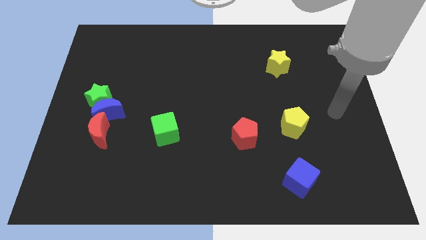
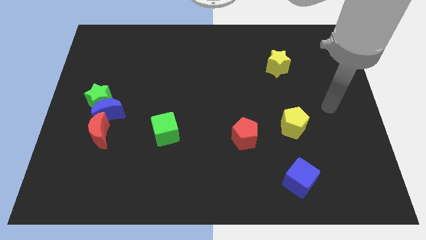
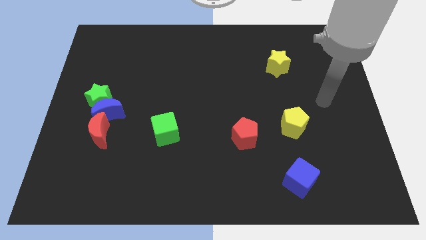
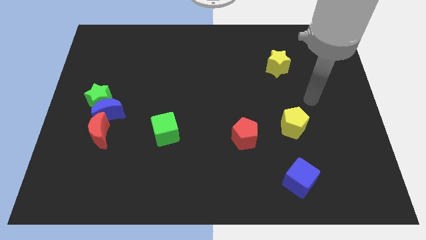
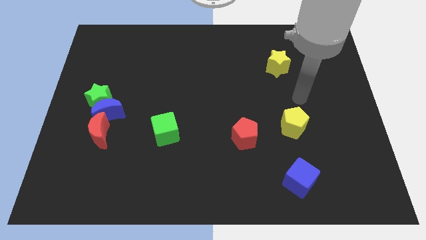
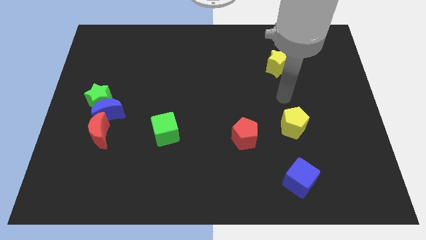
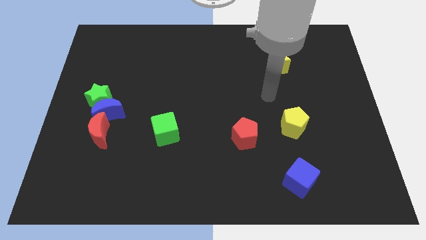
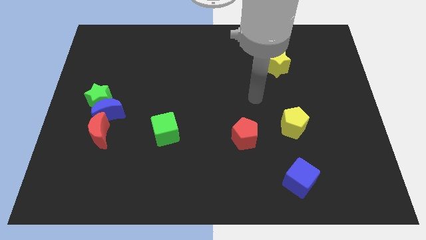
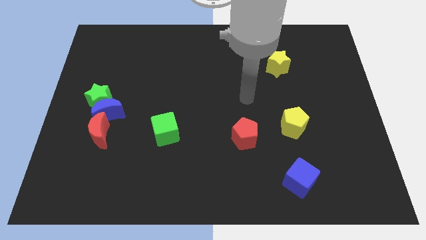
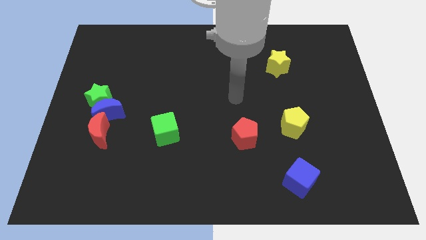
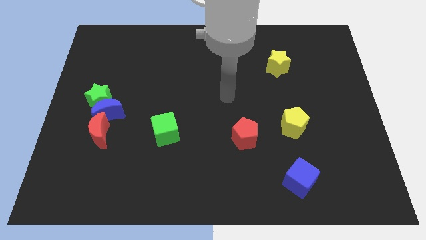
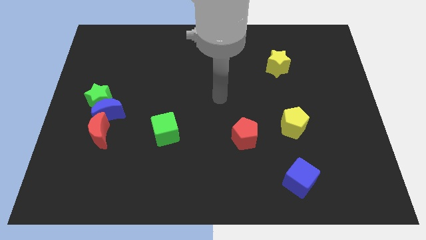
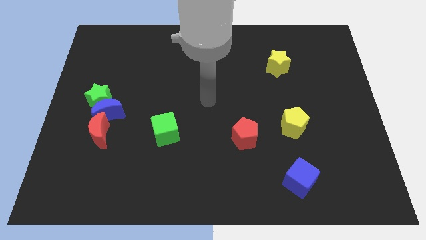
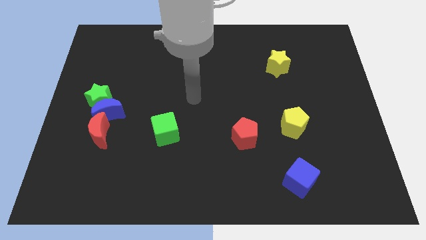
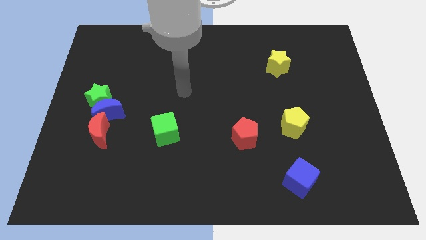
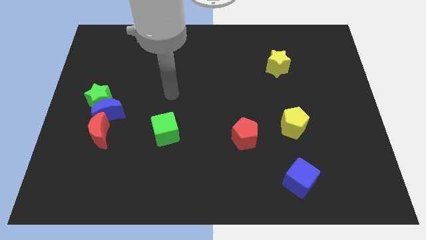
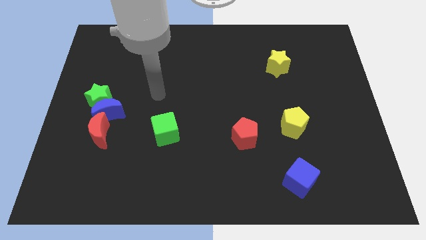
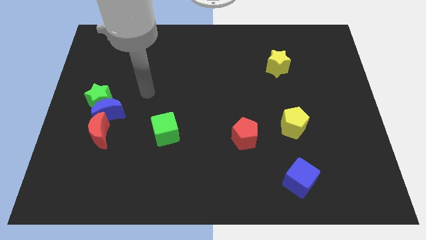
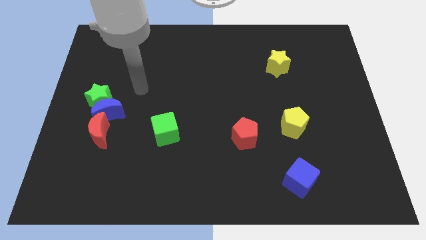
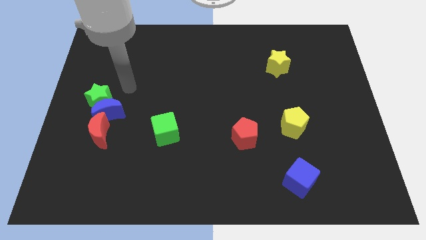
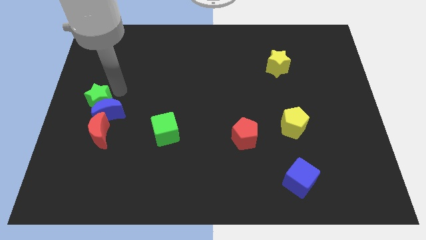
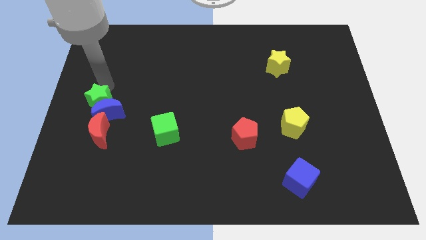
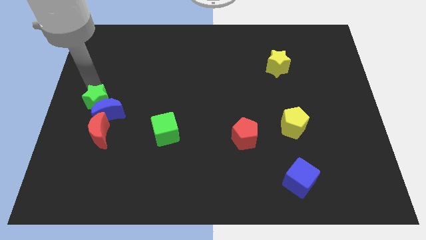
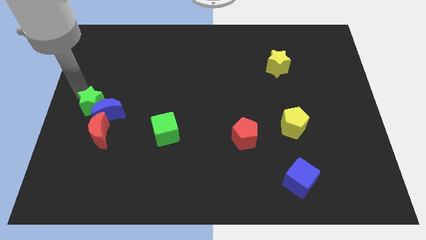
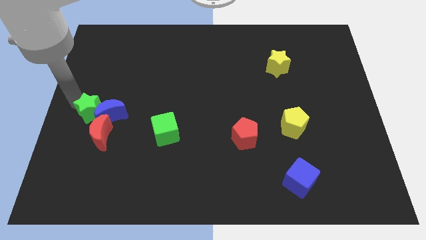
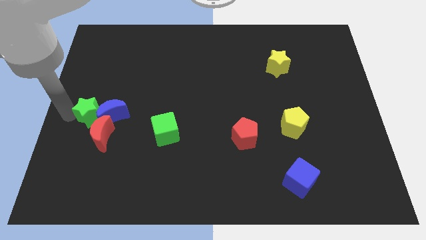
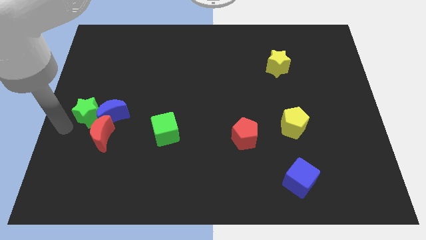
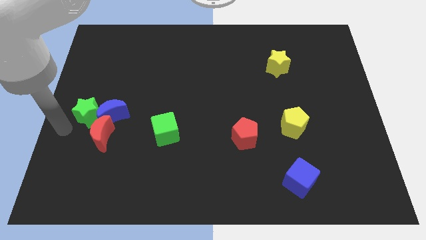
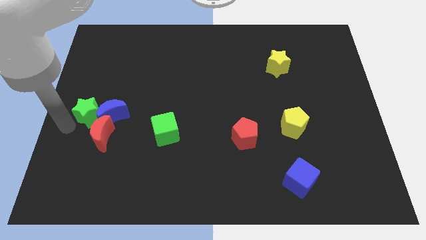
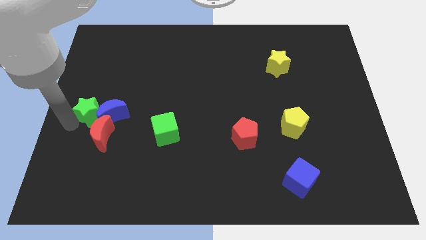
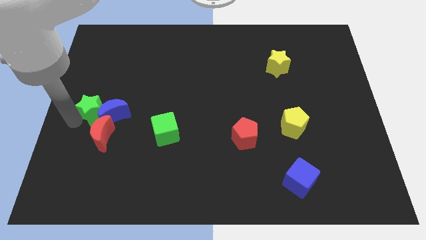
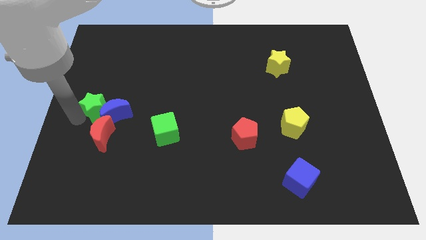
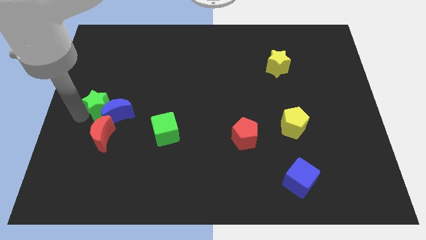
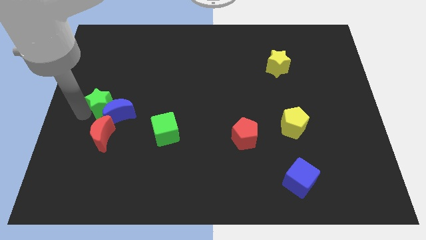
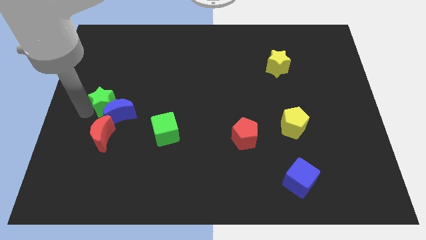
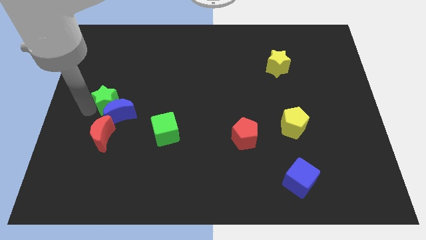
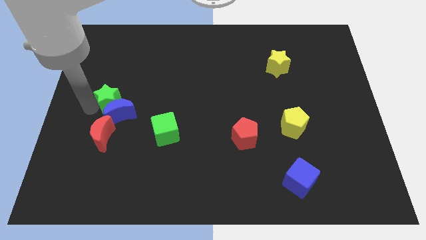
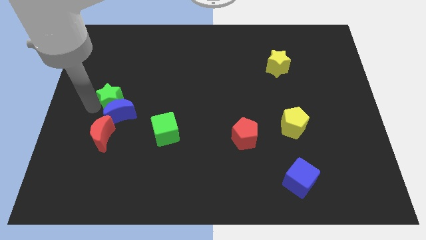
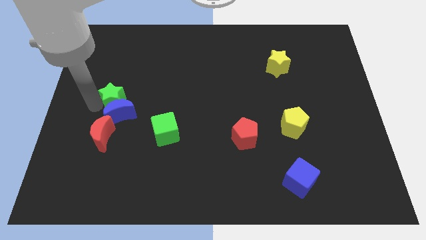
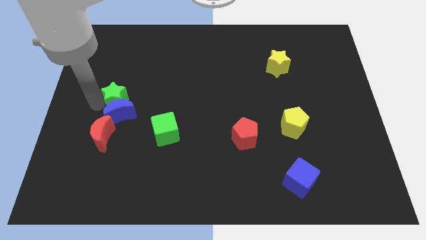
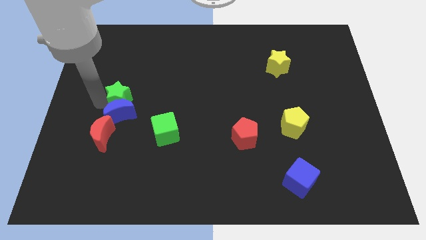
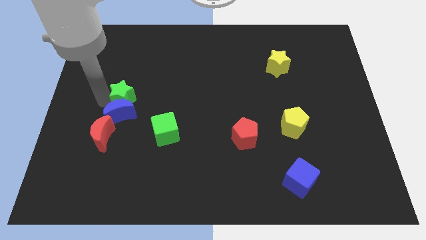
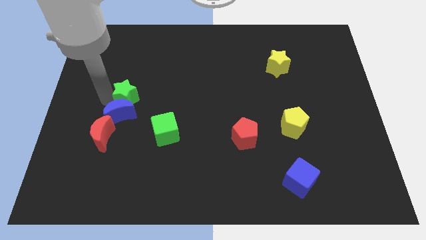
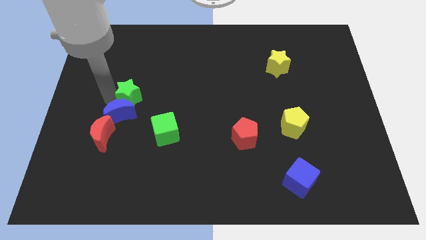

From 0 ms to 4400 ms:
slide the green star right a little

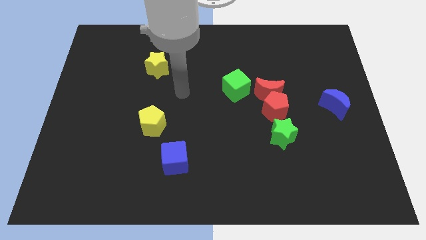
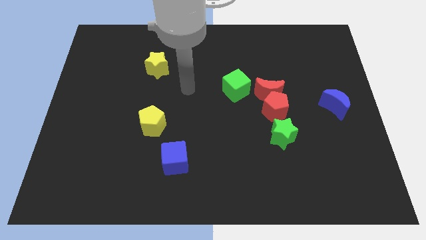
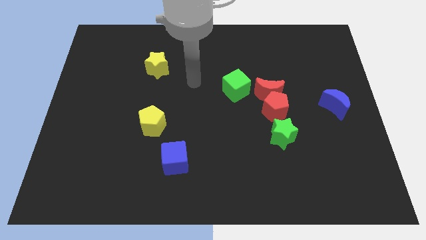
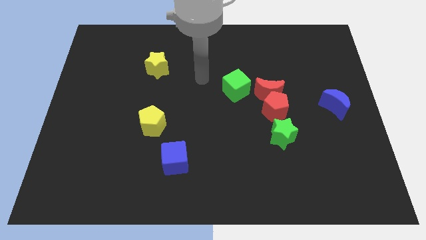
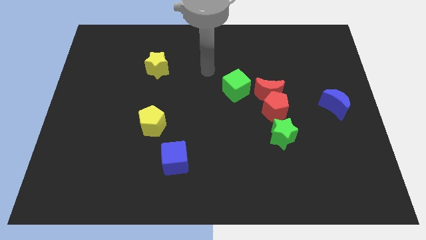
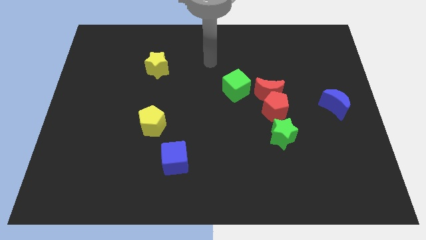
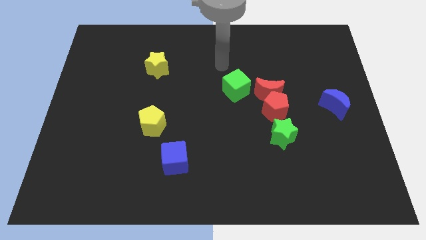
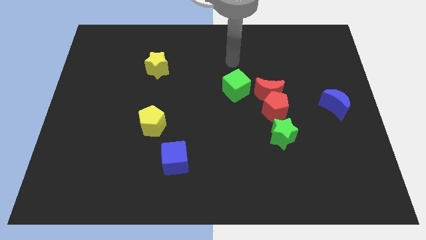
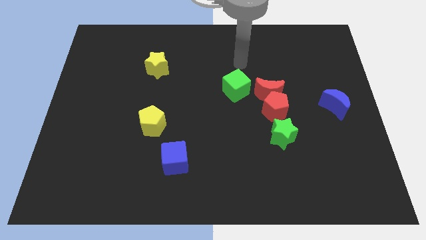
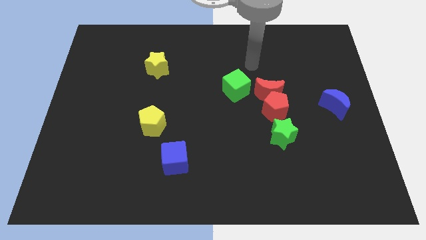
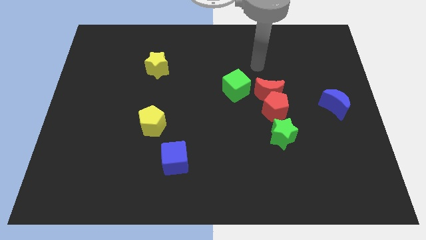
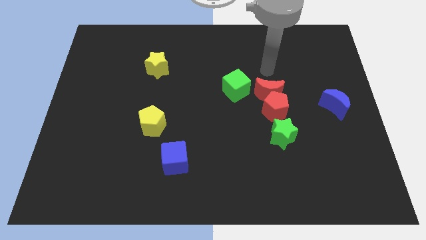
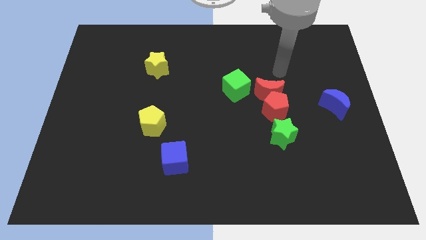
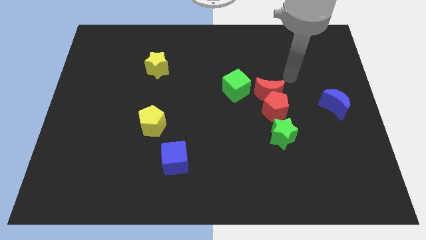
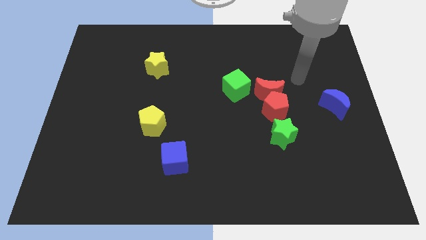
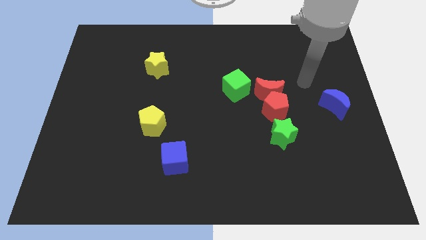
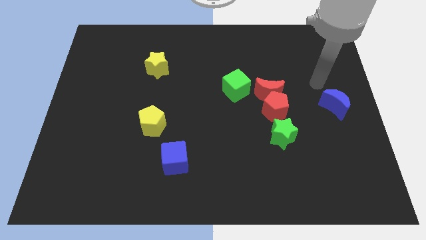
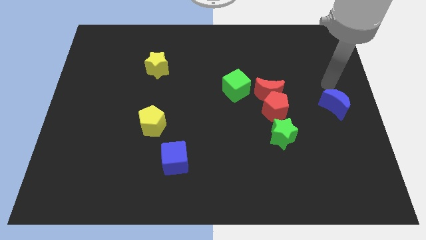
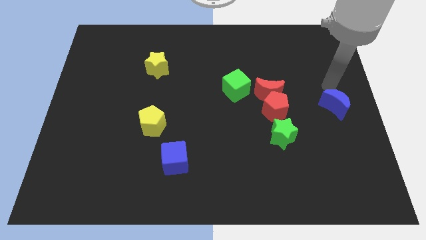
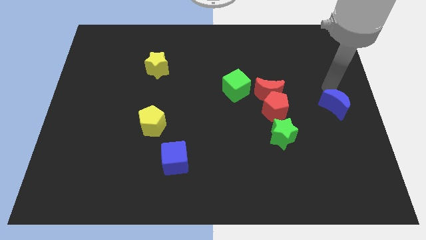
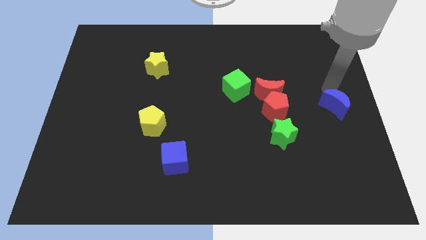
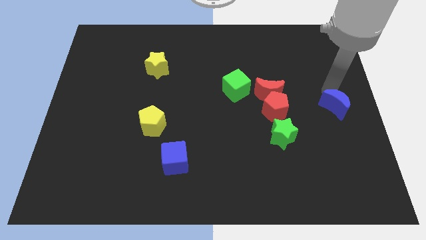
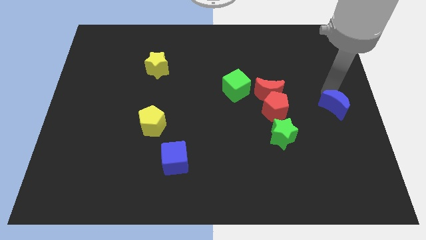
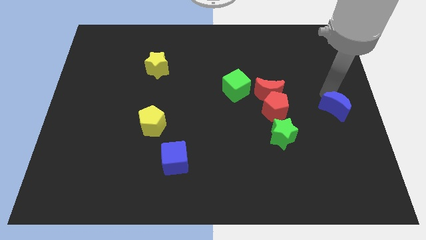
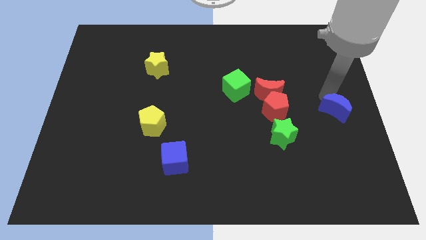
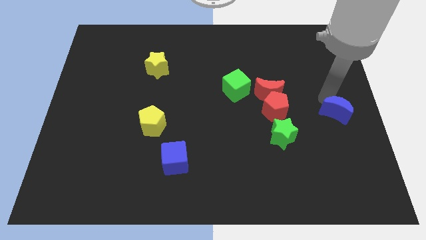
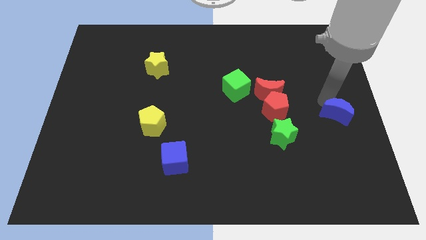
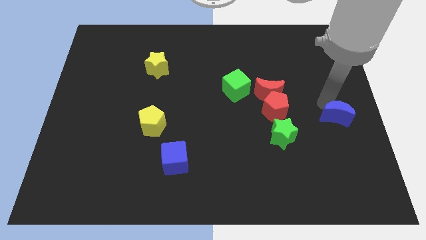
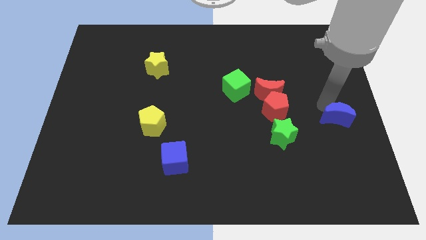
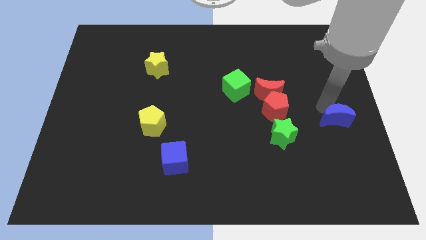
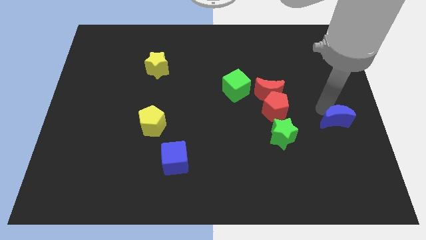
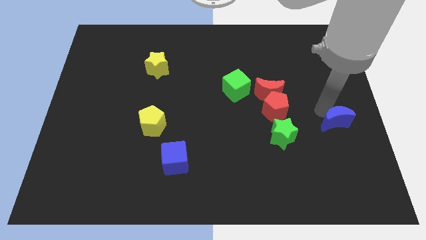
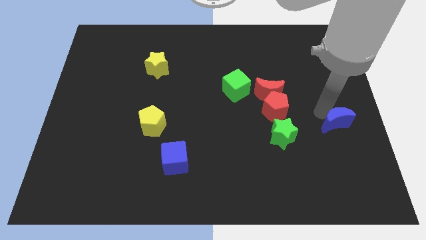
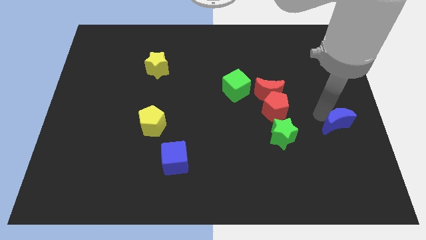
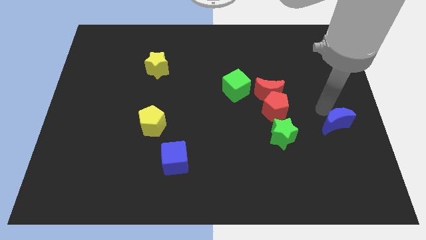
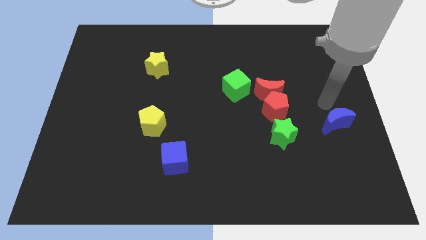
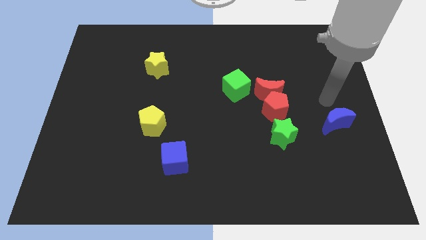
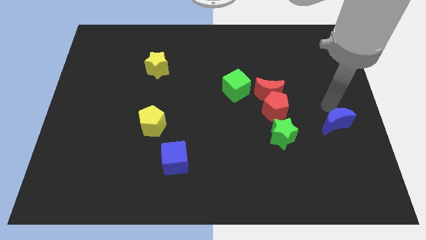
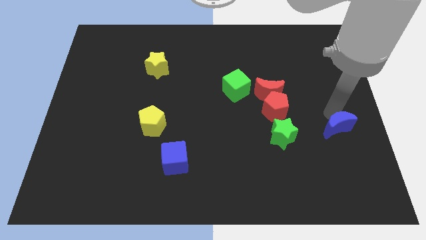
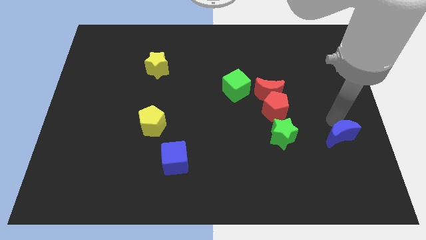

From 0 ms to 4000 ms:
push the blue moon downwards a little
